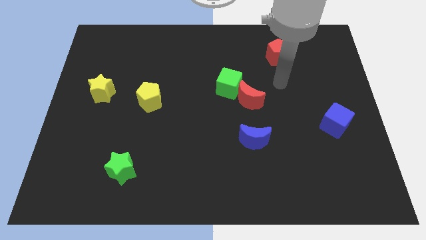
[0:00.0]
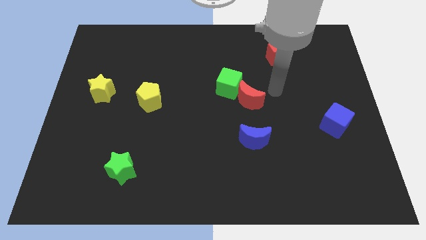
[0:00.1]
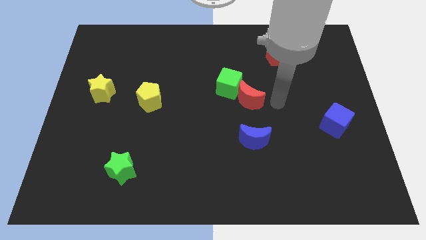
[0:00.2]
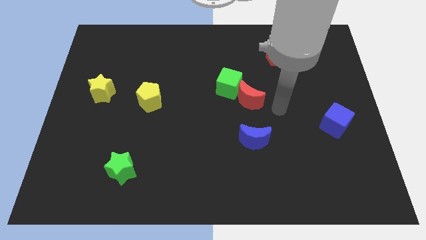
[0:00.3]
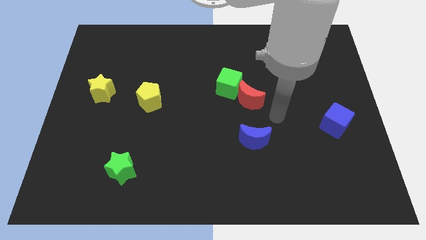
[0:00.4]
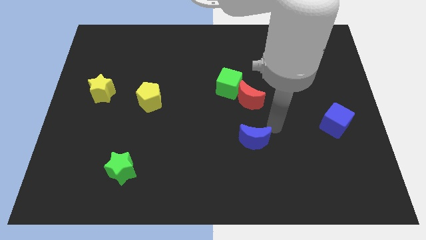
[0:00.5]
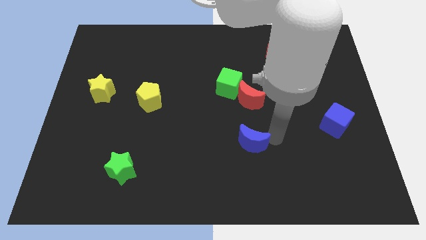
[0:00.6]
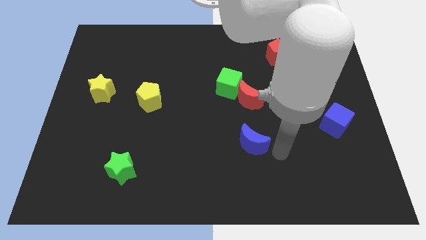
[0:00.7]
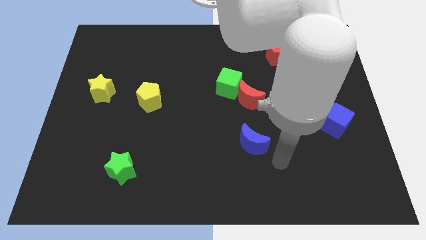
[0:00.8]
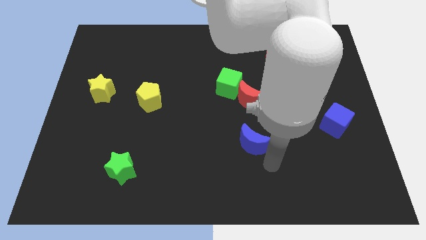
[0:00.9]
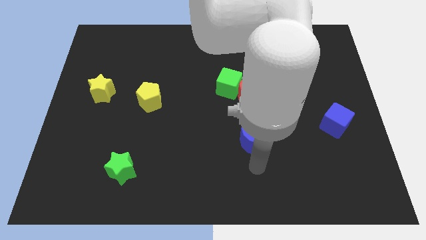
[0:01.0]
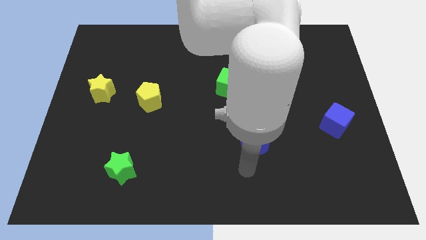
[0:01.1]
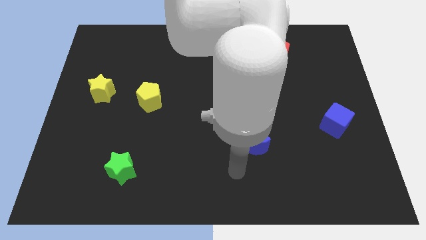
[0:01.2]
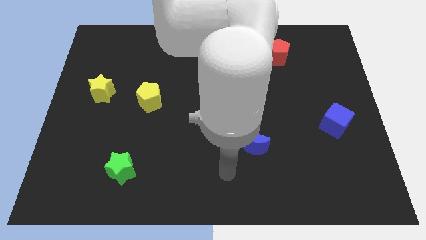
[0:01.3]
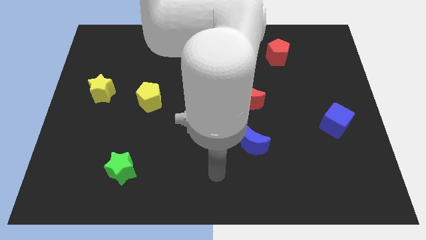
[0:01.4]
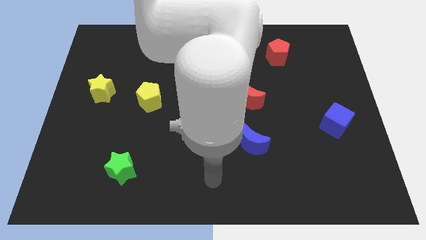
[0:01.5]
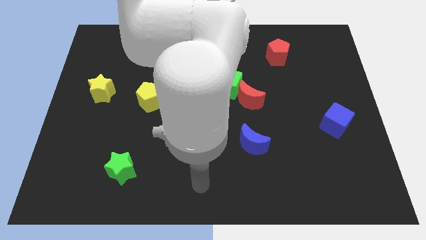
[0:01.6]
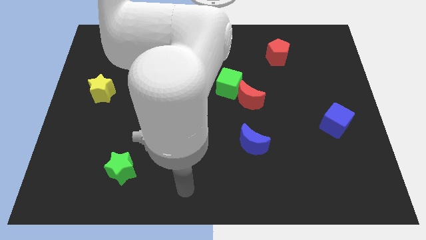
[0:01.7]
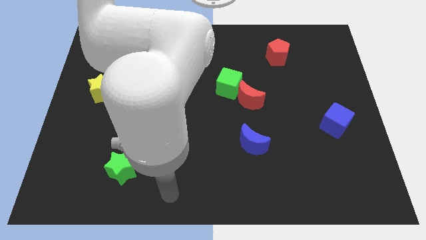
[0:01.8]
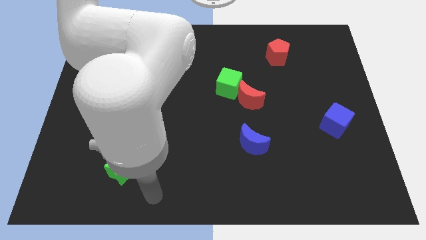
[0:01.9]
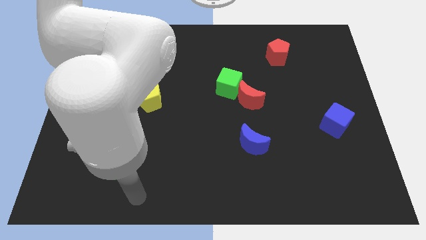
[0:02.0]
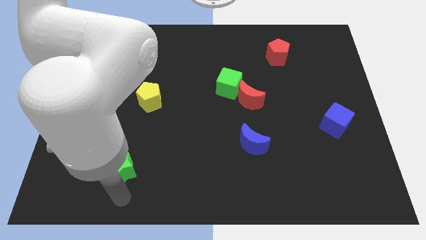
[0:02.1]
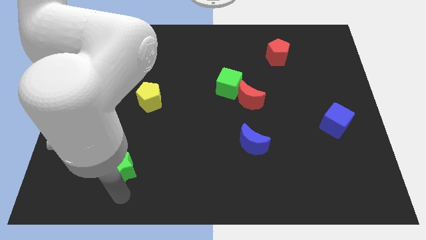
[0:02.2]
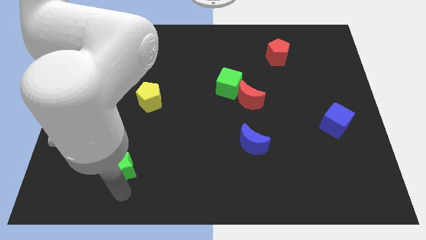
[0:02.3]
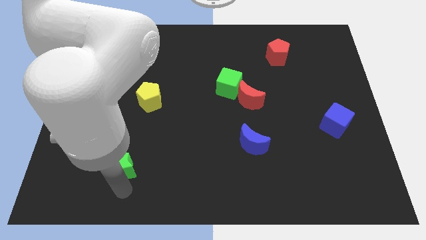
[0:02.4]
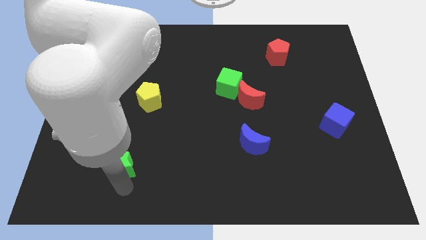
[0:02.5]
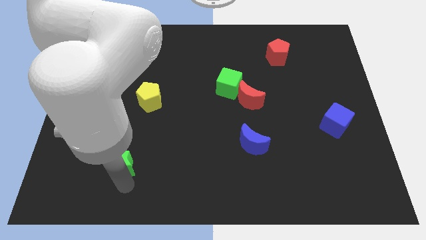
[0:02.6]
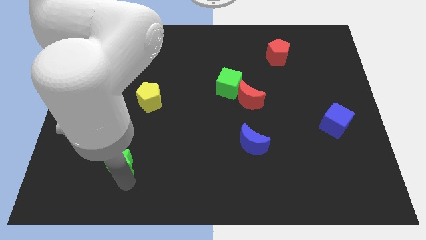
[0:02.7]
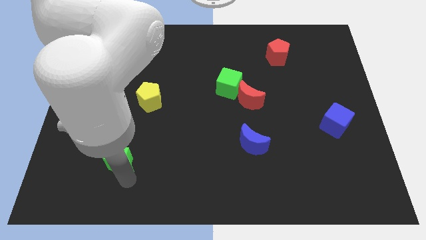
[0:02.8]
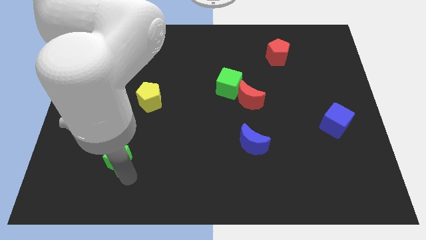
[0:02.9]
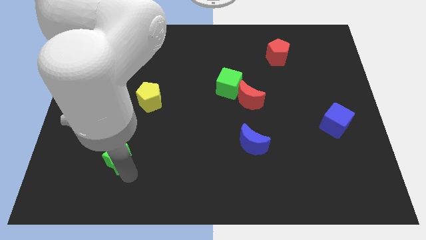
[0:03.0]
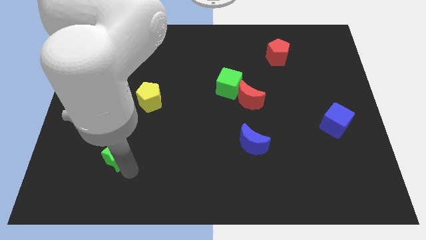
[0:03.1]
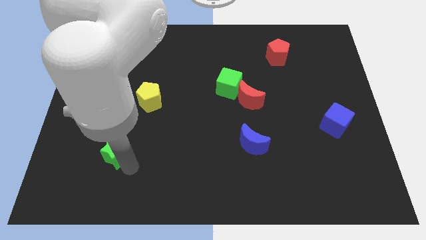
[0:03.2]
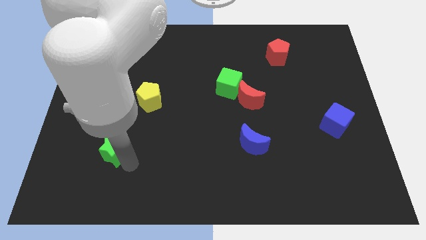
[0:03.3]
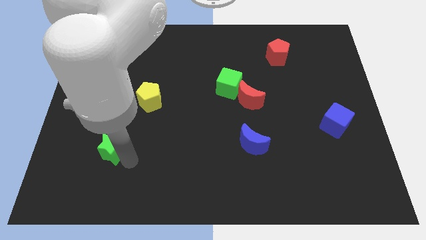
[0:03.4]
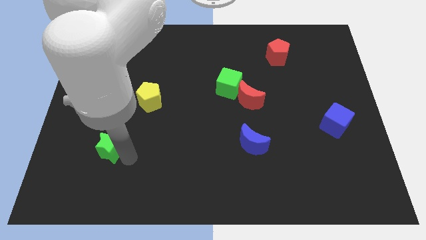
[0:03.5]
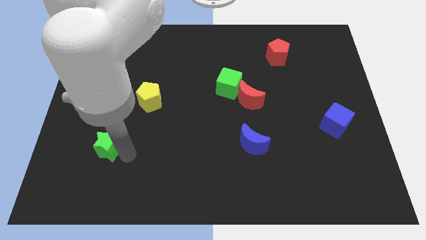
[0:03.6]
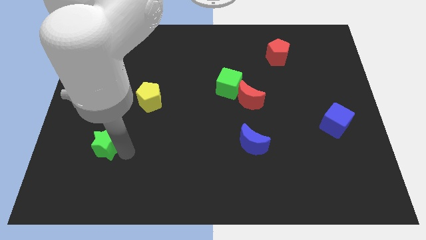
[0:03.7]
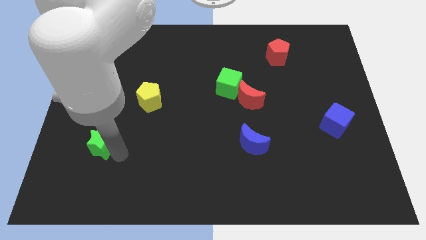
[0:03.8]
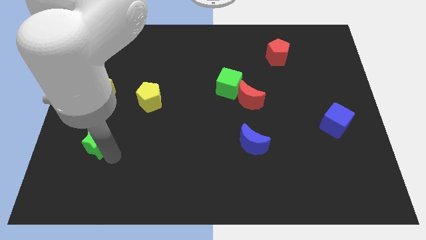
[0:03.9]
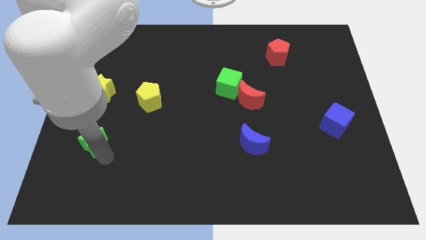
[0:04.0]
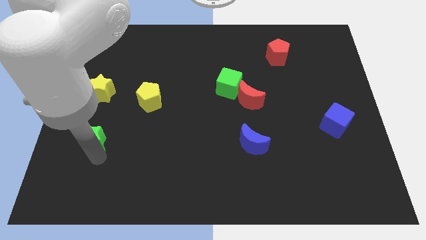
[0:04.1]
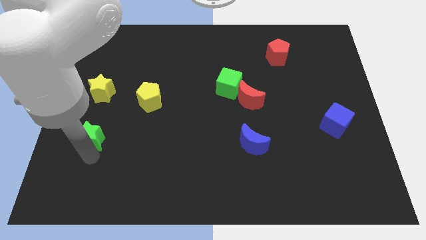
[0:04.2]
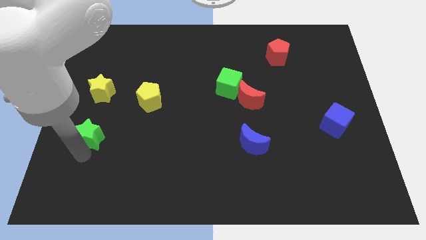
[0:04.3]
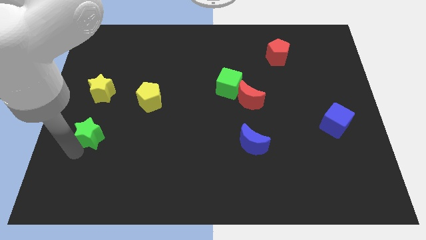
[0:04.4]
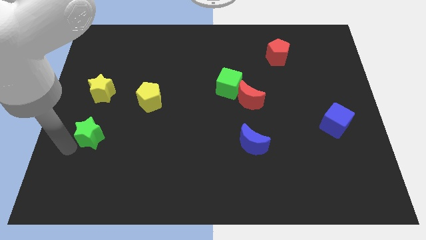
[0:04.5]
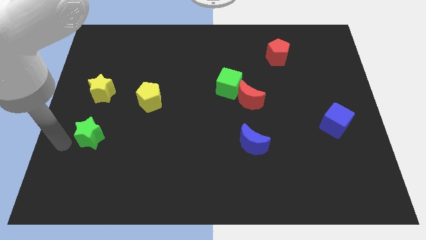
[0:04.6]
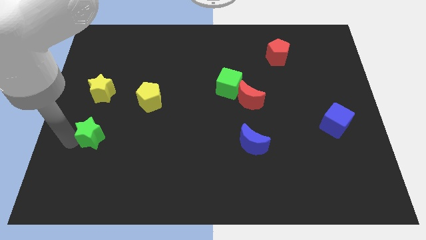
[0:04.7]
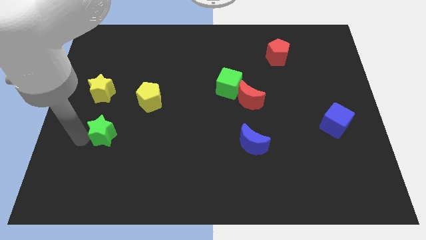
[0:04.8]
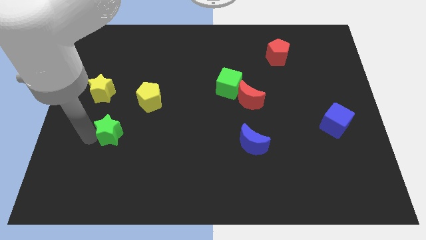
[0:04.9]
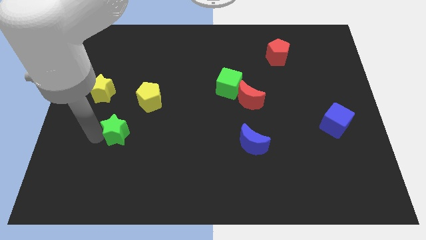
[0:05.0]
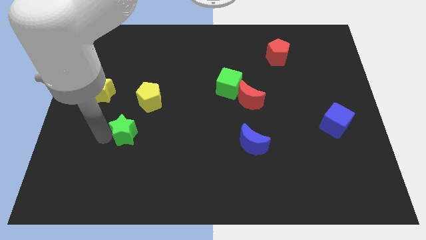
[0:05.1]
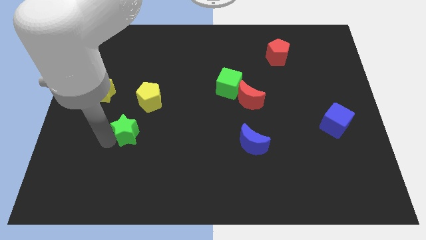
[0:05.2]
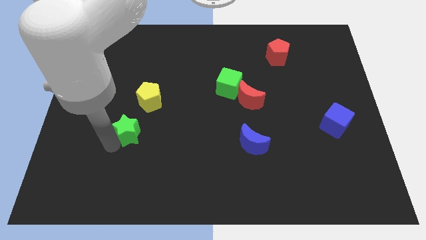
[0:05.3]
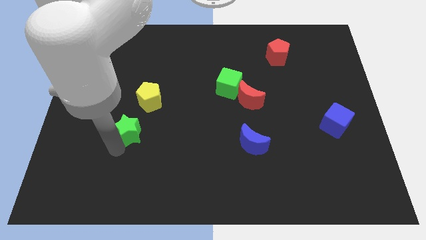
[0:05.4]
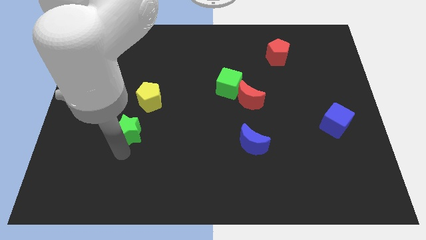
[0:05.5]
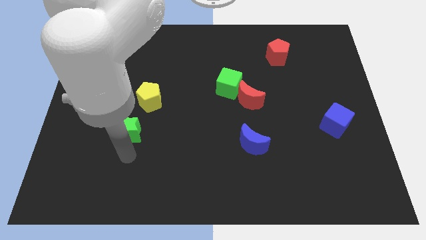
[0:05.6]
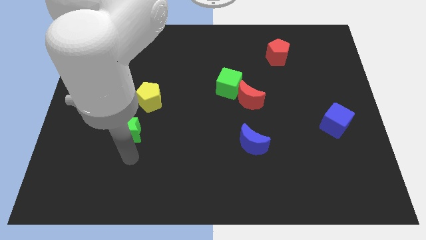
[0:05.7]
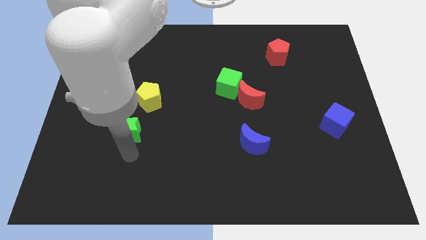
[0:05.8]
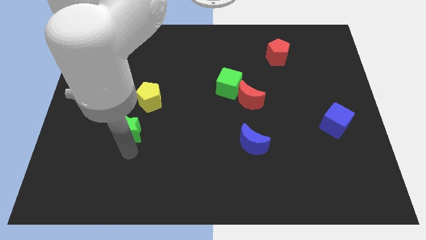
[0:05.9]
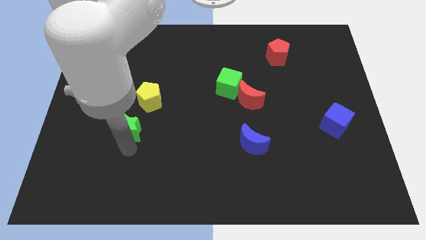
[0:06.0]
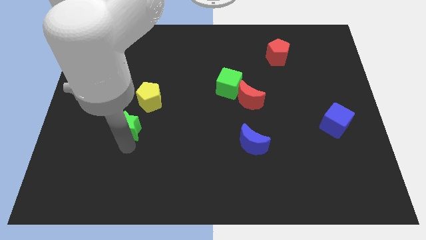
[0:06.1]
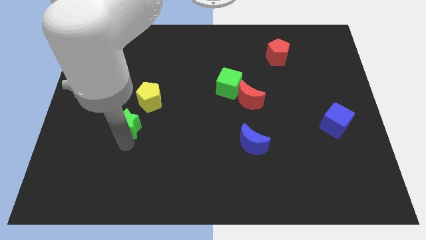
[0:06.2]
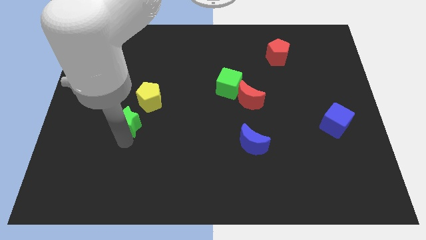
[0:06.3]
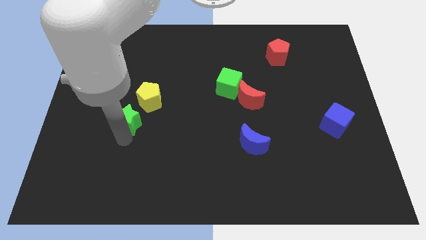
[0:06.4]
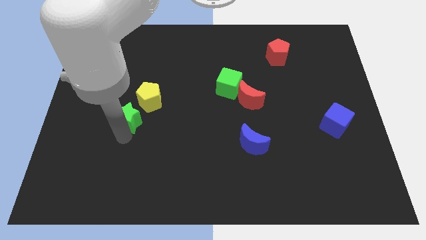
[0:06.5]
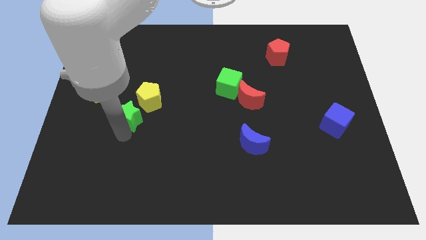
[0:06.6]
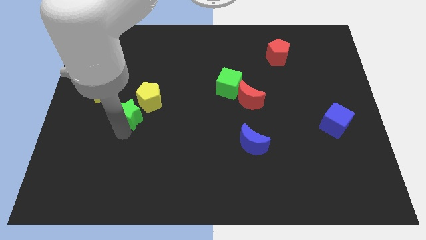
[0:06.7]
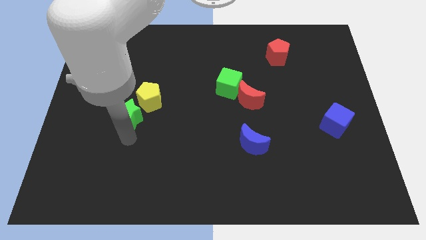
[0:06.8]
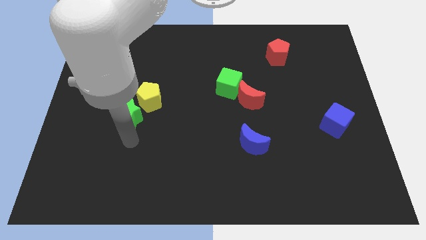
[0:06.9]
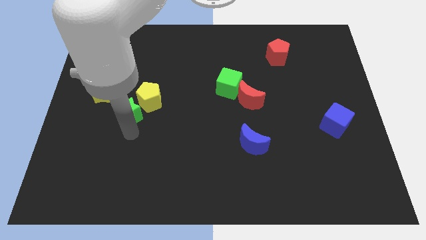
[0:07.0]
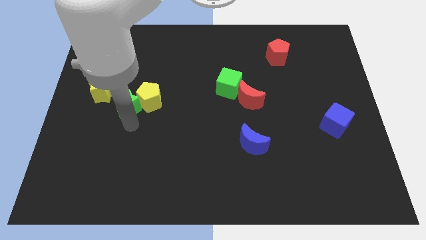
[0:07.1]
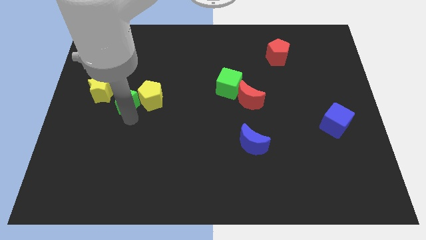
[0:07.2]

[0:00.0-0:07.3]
push the green star to the top left side of the yellow pentagon
